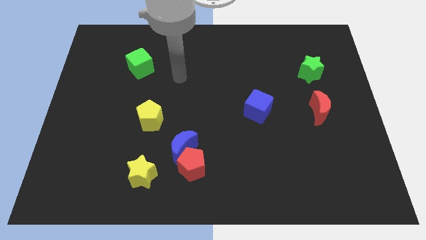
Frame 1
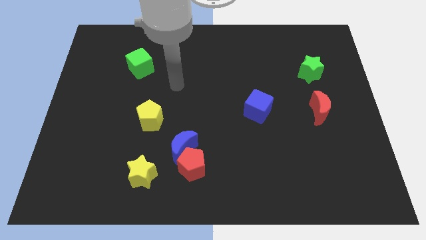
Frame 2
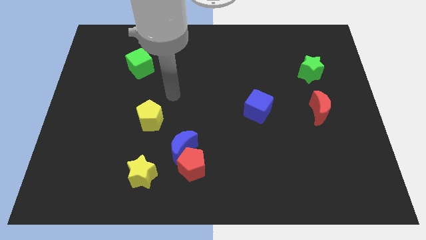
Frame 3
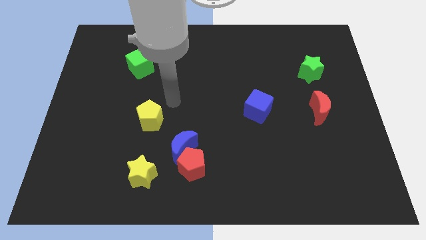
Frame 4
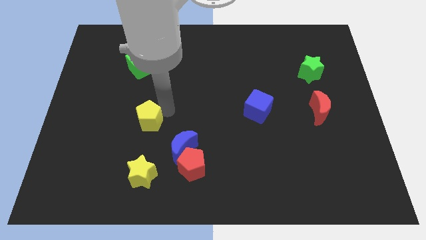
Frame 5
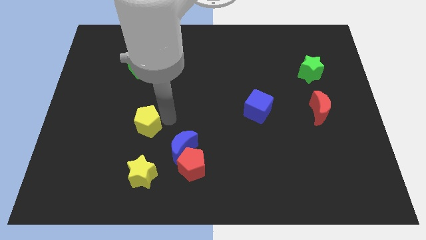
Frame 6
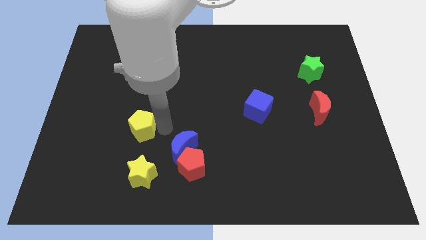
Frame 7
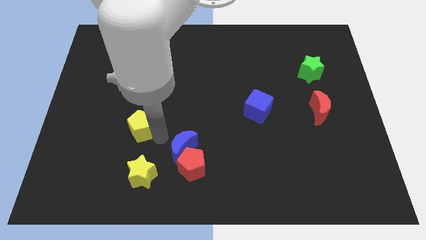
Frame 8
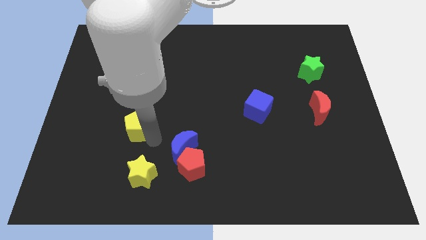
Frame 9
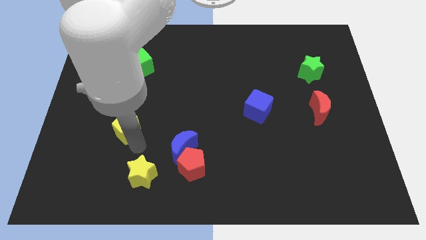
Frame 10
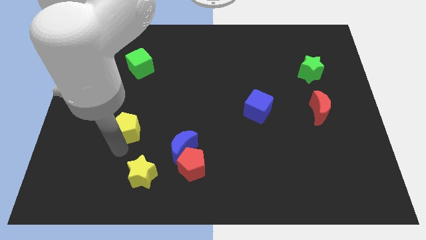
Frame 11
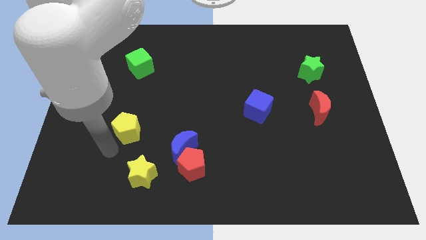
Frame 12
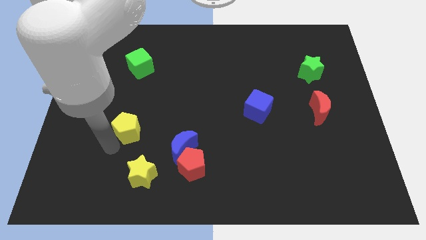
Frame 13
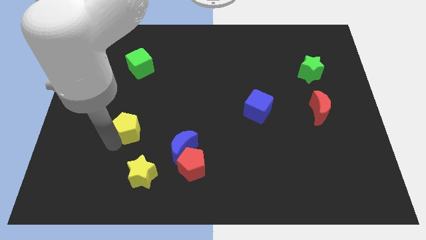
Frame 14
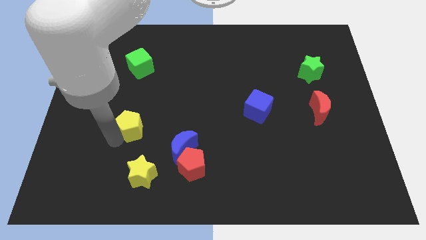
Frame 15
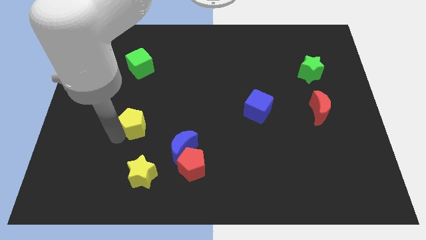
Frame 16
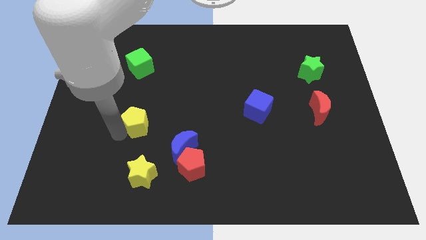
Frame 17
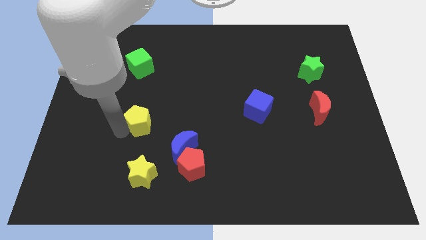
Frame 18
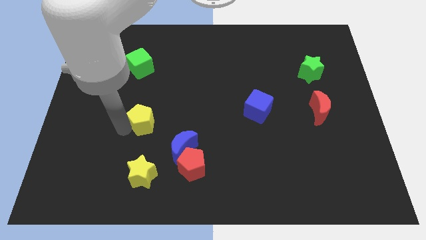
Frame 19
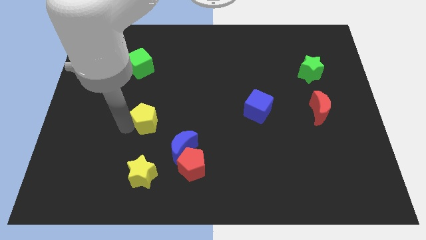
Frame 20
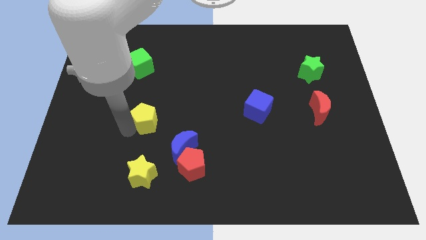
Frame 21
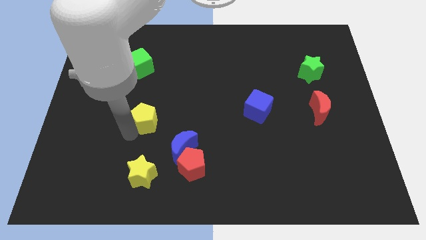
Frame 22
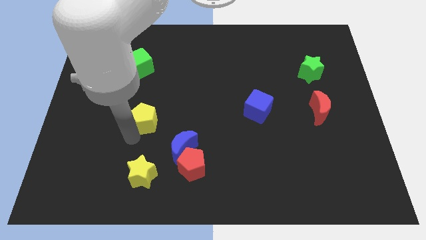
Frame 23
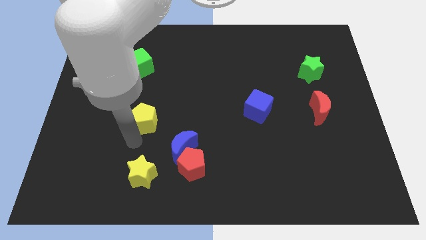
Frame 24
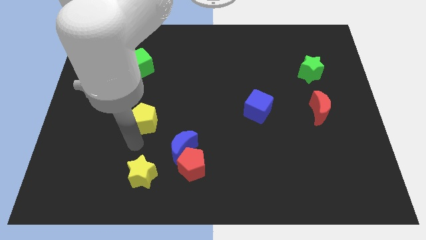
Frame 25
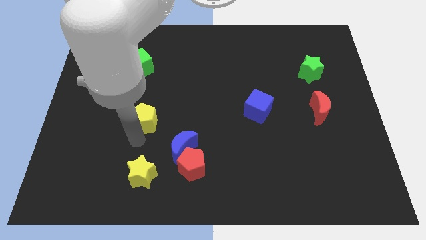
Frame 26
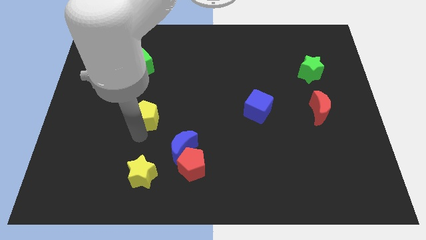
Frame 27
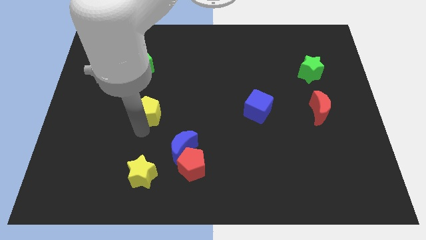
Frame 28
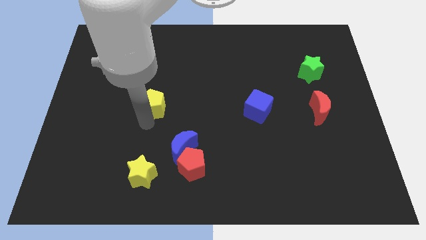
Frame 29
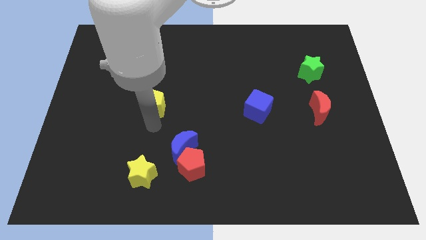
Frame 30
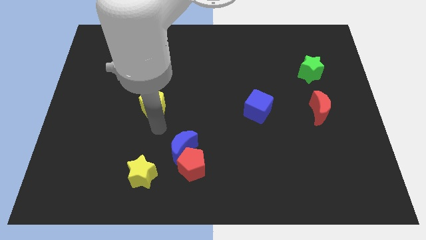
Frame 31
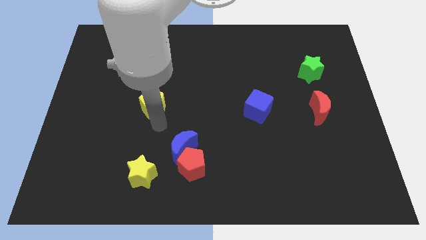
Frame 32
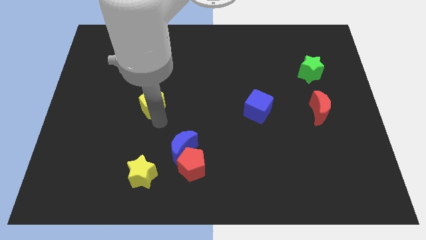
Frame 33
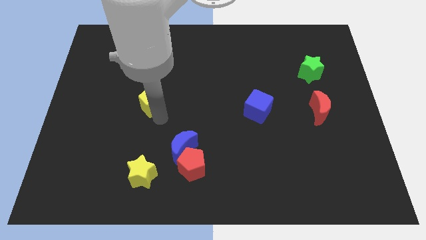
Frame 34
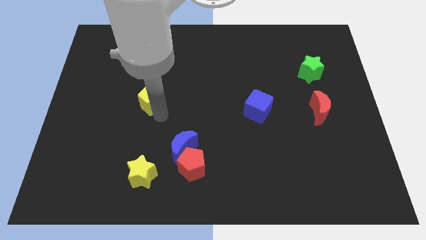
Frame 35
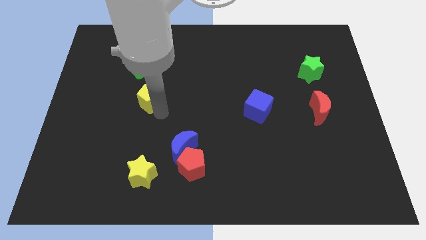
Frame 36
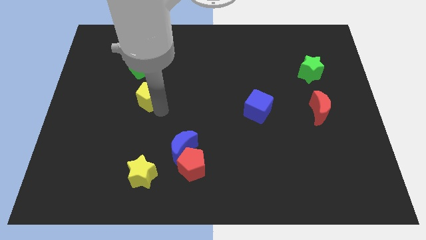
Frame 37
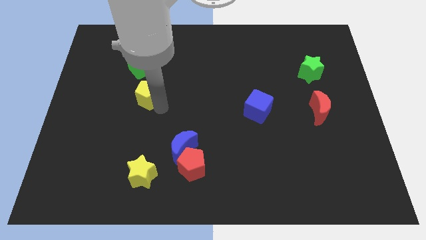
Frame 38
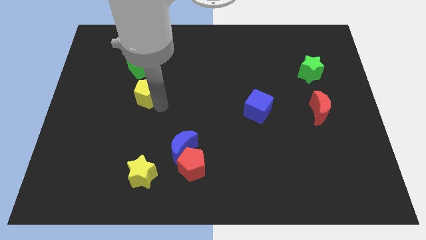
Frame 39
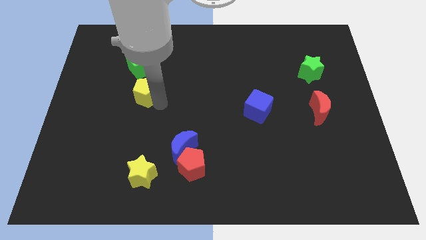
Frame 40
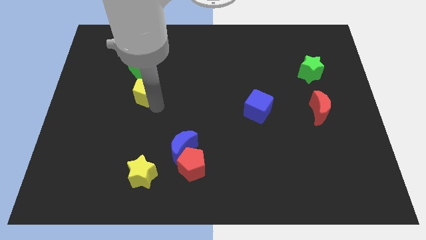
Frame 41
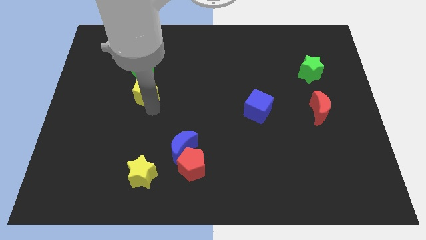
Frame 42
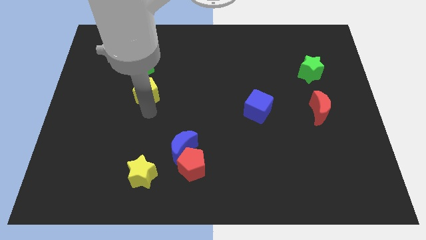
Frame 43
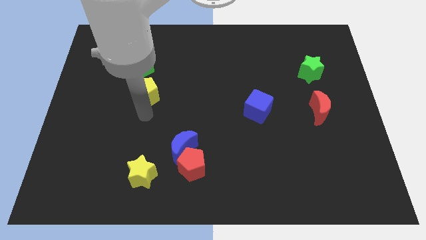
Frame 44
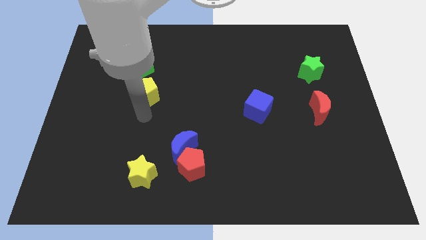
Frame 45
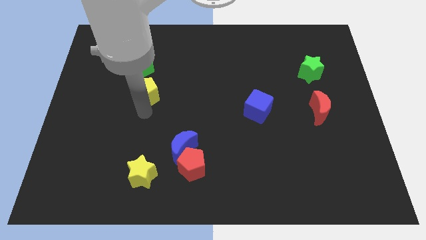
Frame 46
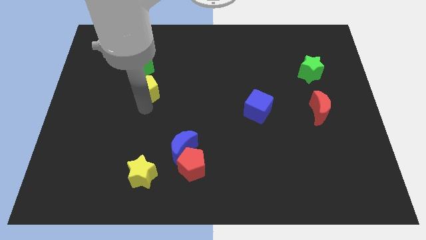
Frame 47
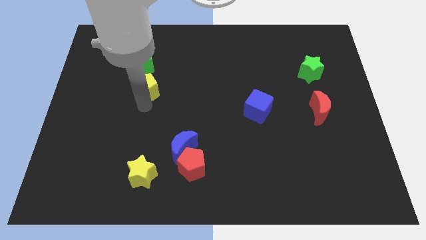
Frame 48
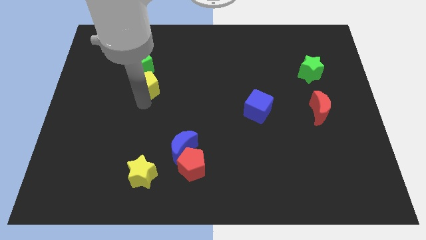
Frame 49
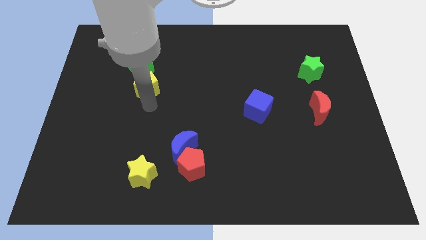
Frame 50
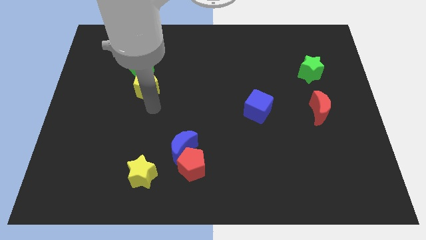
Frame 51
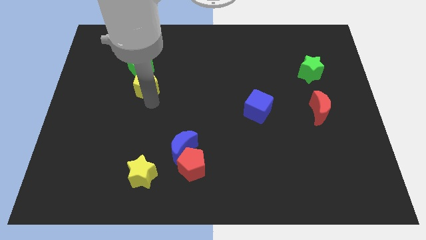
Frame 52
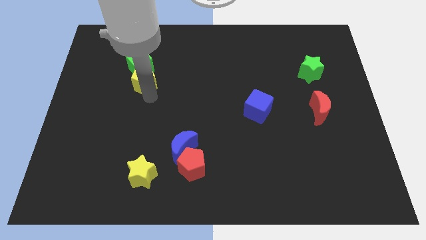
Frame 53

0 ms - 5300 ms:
put the yellow pentagon to the green cube

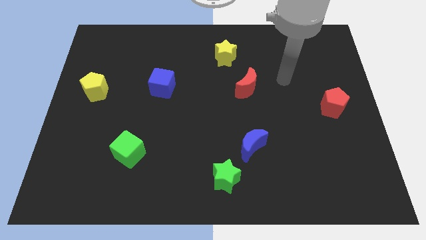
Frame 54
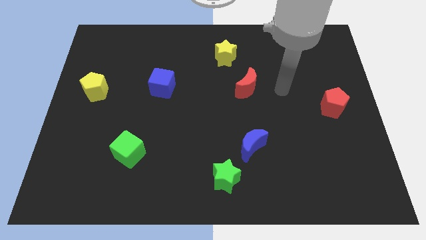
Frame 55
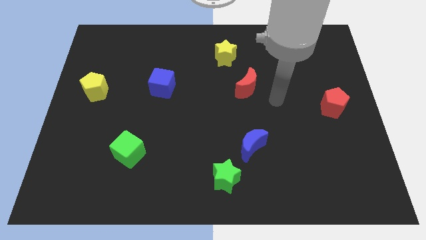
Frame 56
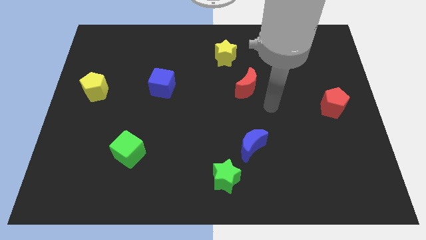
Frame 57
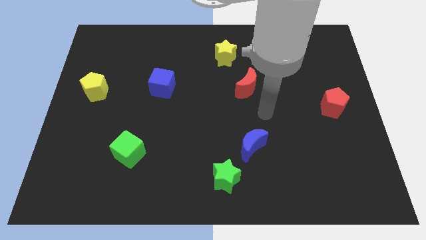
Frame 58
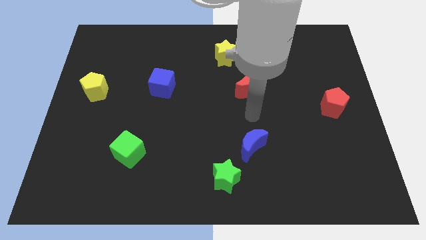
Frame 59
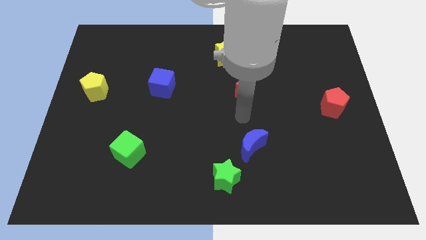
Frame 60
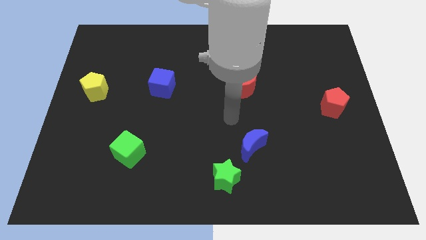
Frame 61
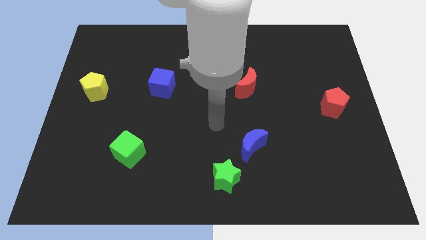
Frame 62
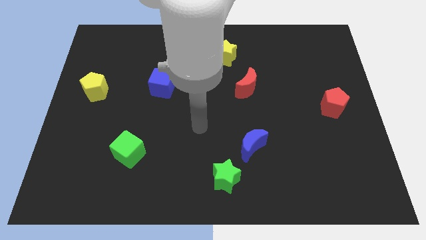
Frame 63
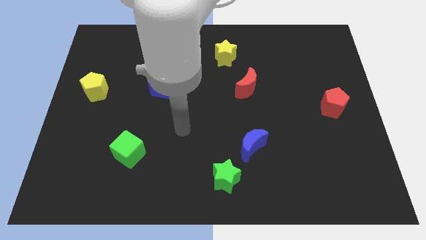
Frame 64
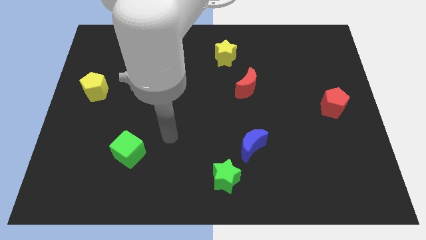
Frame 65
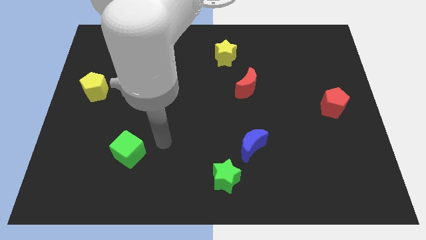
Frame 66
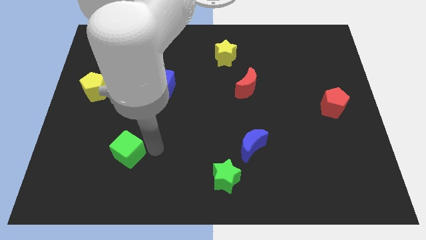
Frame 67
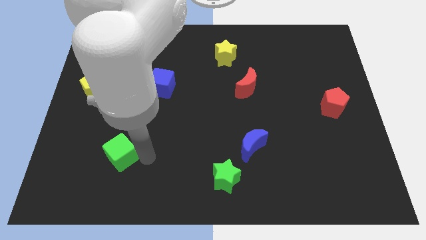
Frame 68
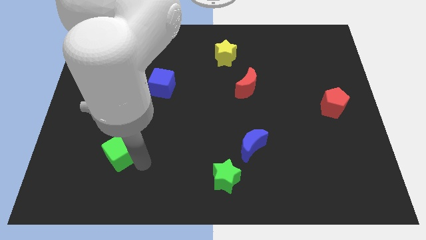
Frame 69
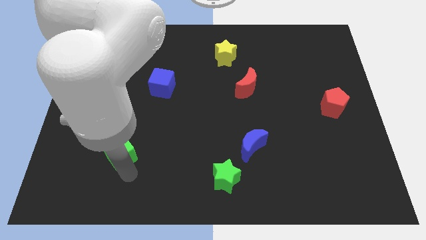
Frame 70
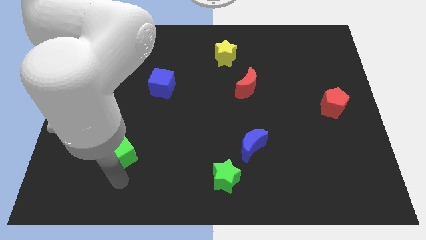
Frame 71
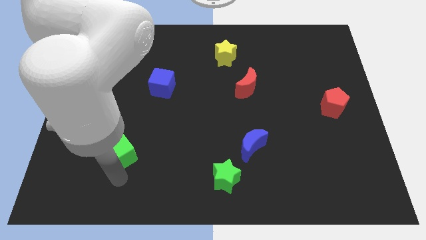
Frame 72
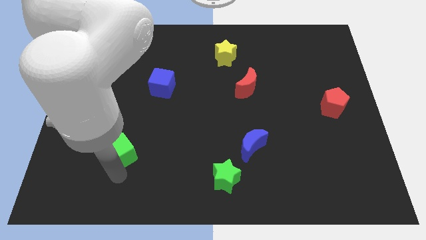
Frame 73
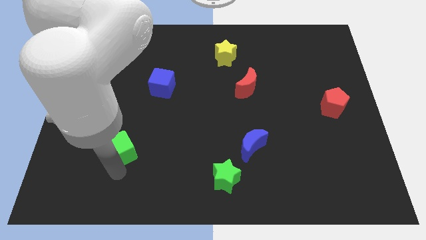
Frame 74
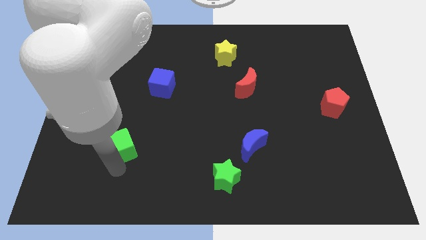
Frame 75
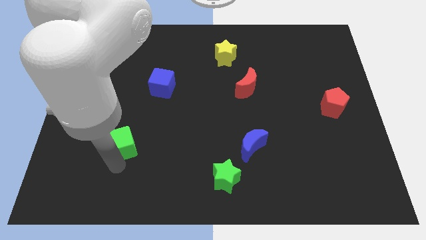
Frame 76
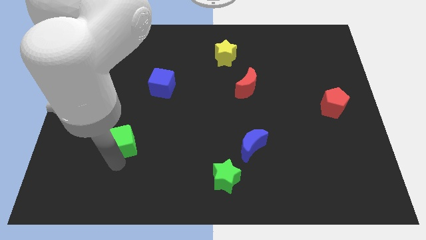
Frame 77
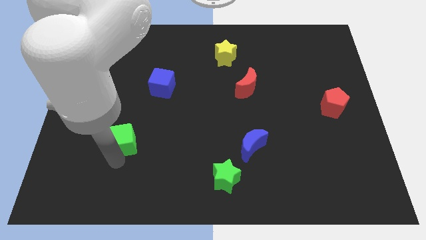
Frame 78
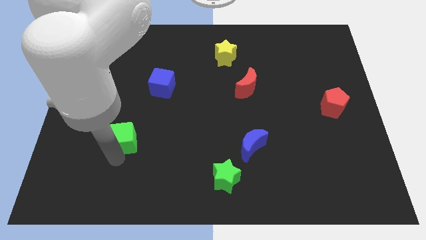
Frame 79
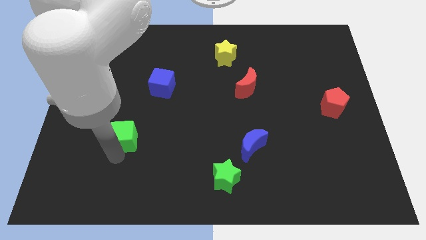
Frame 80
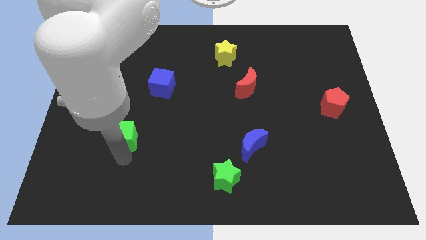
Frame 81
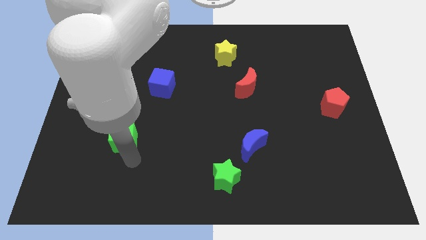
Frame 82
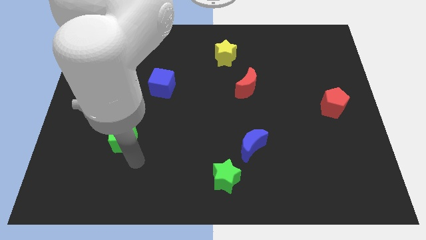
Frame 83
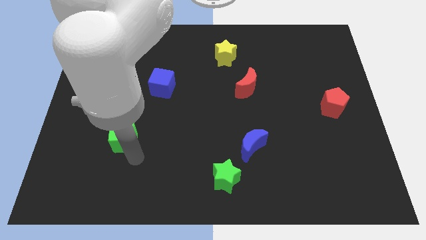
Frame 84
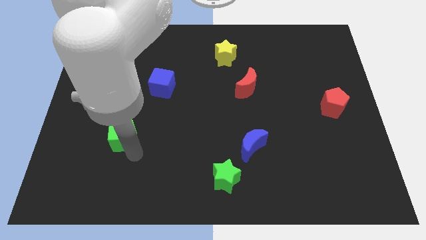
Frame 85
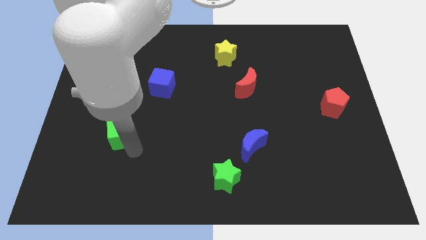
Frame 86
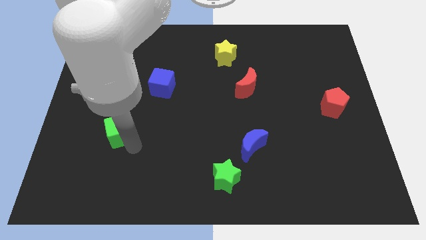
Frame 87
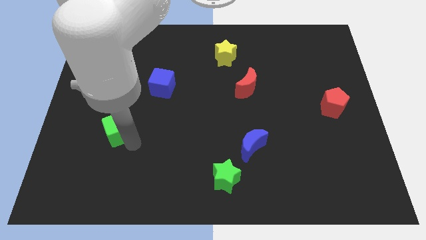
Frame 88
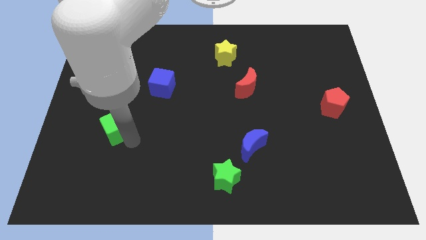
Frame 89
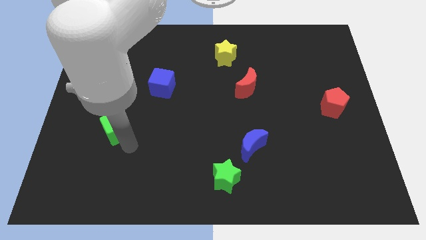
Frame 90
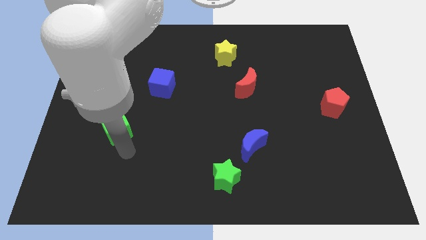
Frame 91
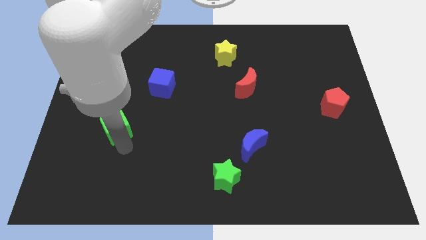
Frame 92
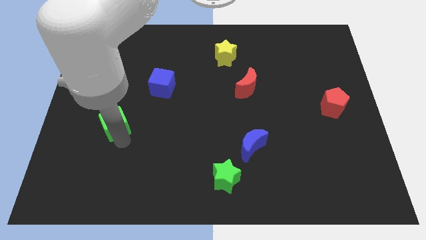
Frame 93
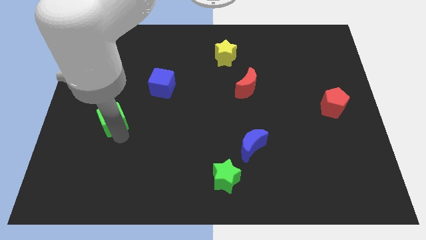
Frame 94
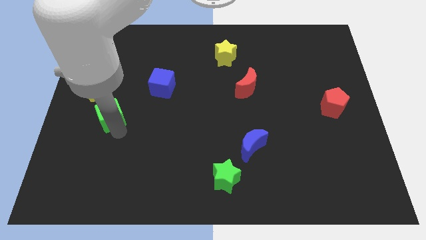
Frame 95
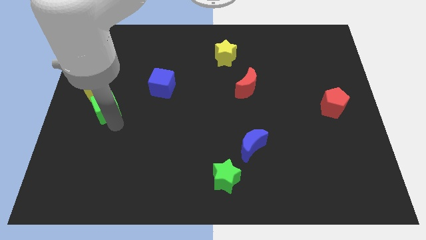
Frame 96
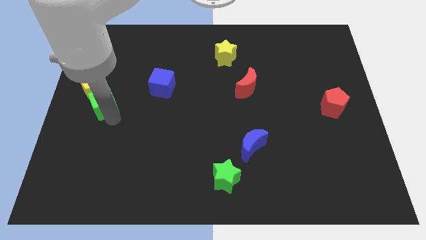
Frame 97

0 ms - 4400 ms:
slide the green cube towards the yellow pentagon
